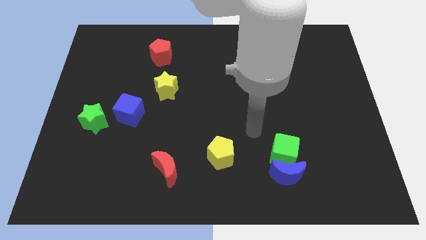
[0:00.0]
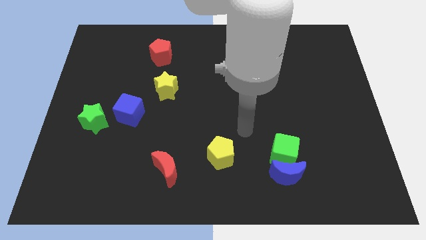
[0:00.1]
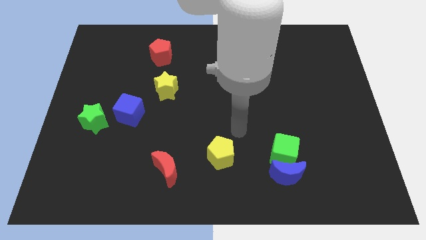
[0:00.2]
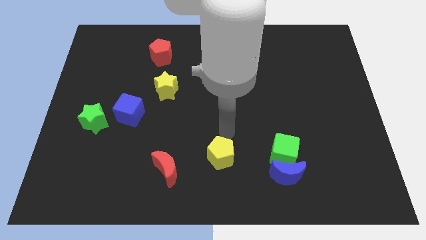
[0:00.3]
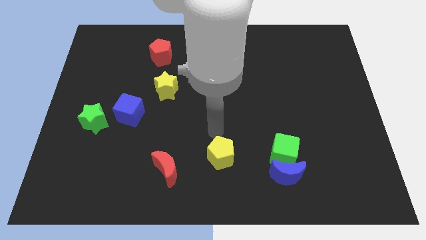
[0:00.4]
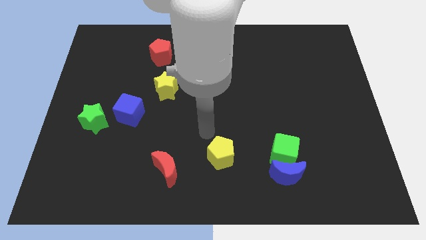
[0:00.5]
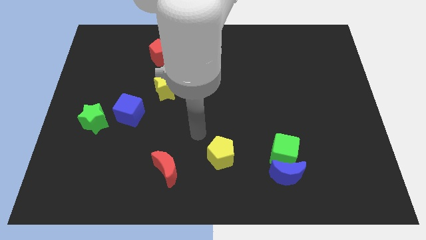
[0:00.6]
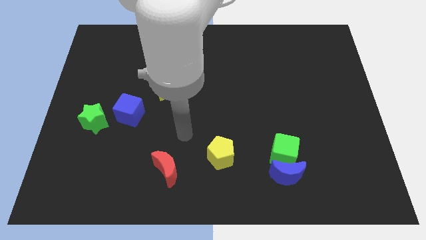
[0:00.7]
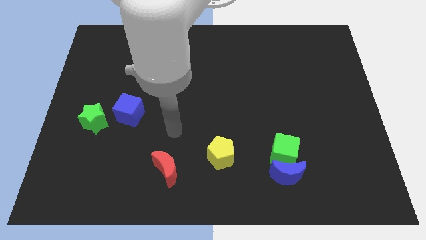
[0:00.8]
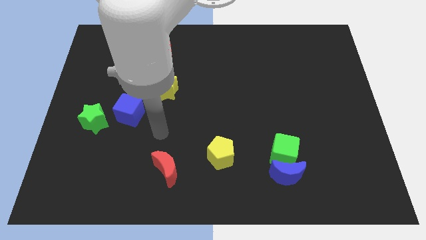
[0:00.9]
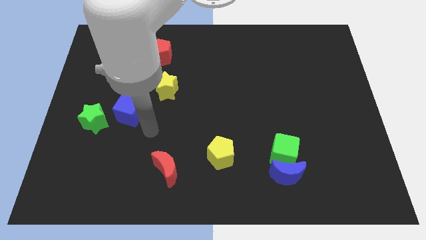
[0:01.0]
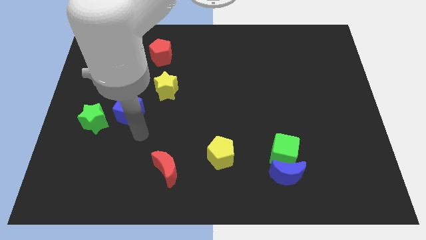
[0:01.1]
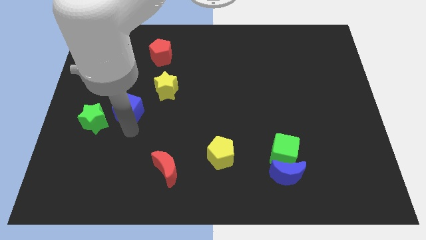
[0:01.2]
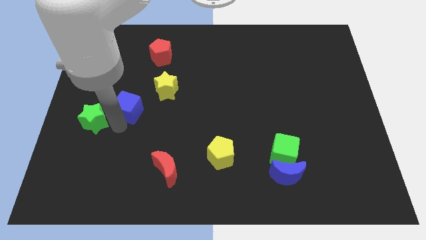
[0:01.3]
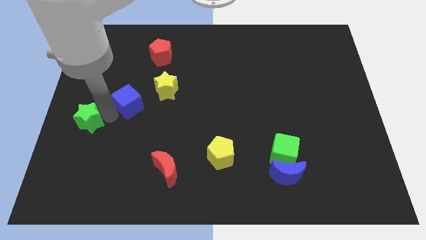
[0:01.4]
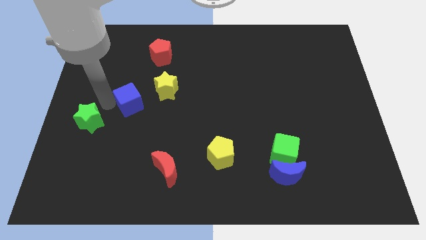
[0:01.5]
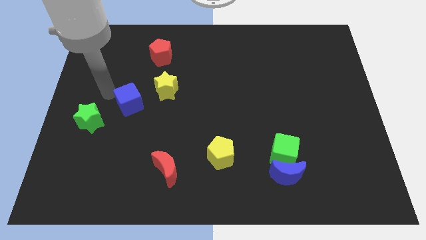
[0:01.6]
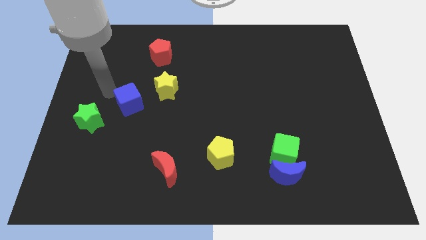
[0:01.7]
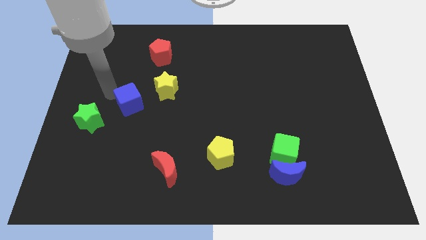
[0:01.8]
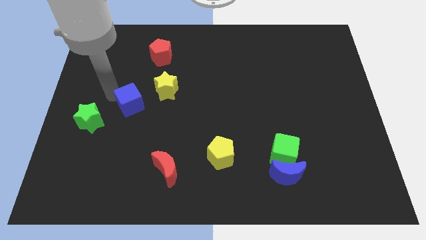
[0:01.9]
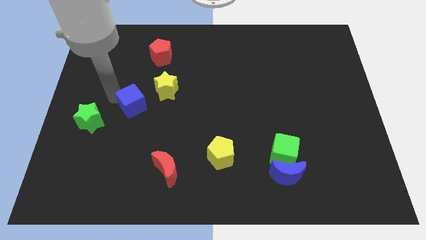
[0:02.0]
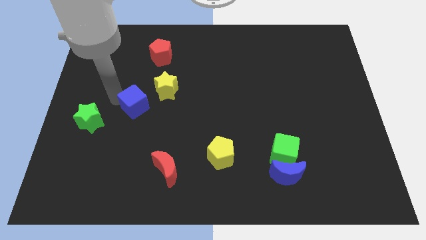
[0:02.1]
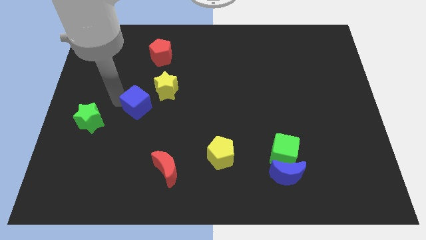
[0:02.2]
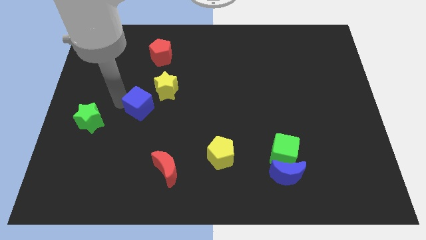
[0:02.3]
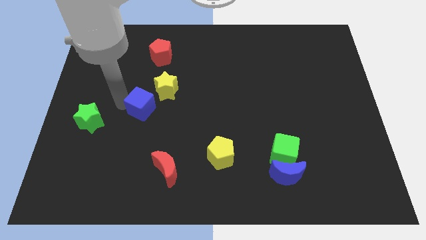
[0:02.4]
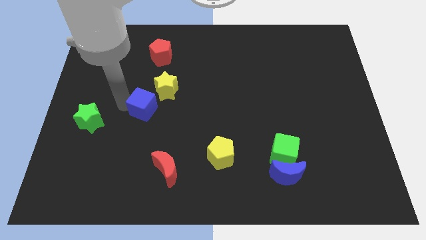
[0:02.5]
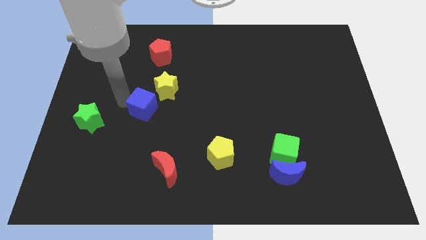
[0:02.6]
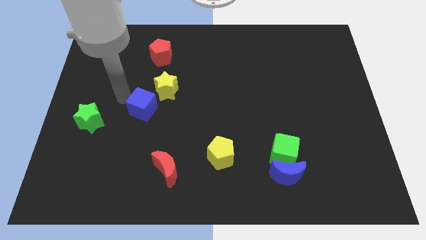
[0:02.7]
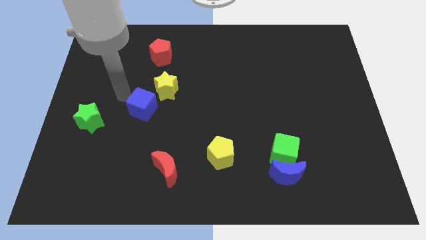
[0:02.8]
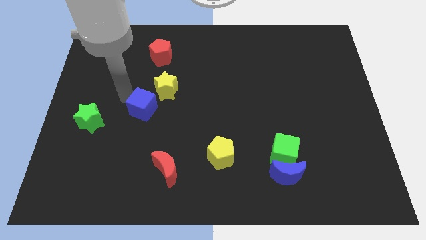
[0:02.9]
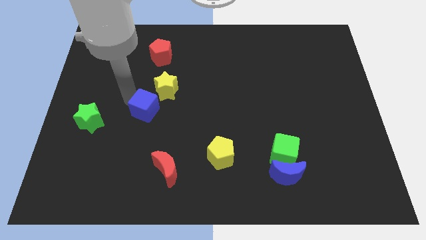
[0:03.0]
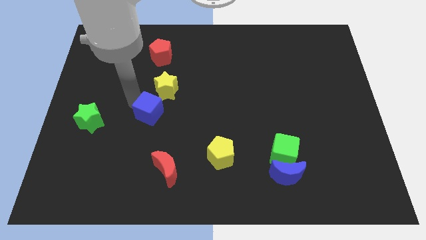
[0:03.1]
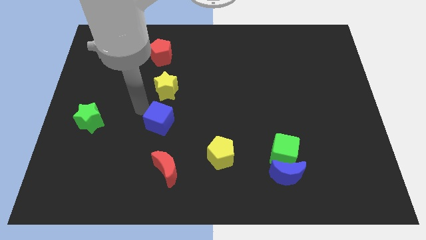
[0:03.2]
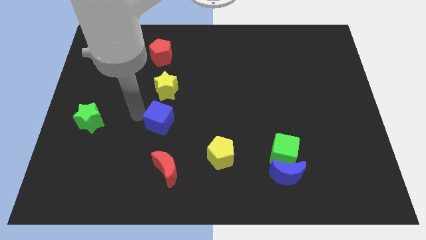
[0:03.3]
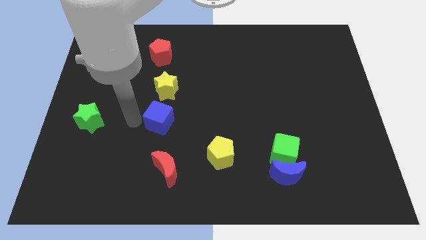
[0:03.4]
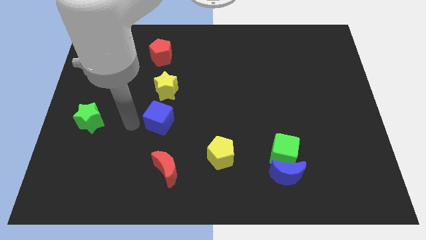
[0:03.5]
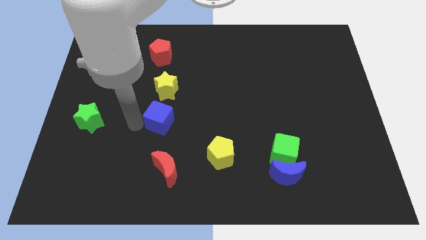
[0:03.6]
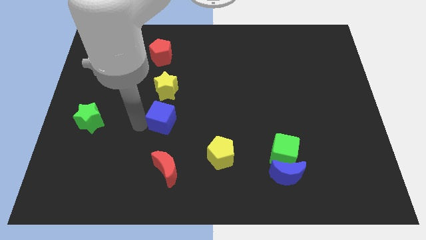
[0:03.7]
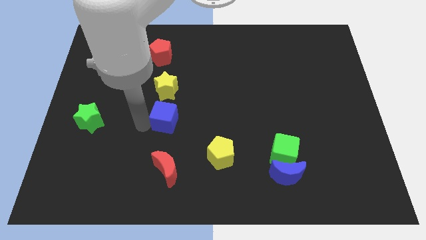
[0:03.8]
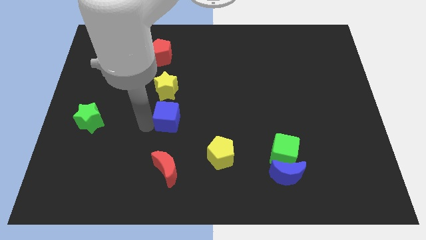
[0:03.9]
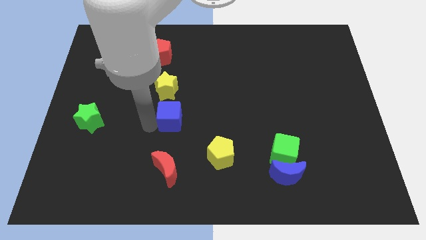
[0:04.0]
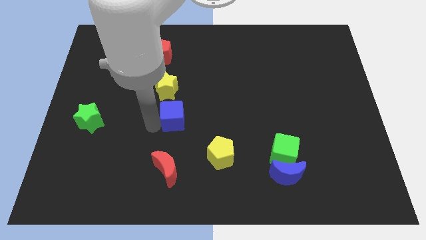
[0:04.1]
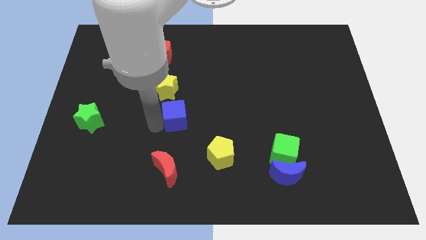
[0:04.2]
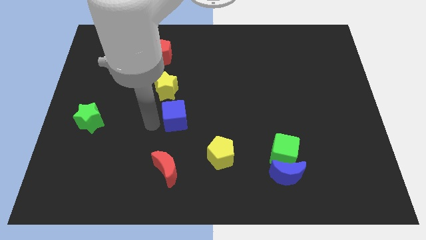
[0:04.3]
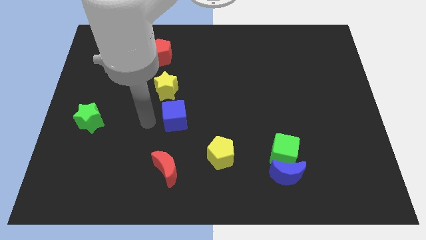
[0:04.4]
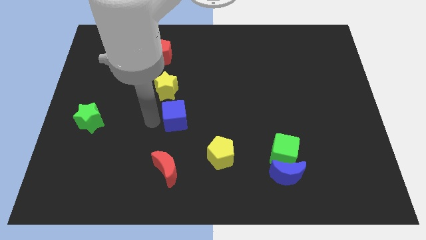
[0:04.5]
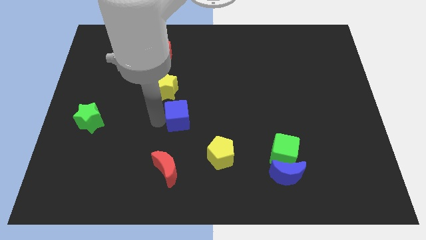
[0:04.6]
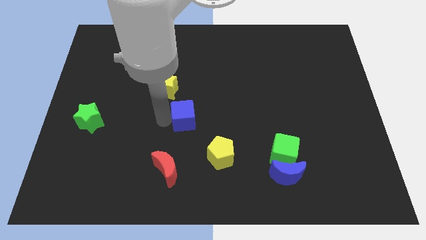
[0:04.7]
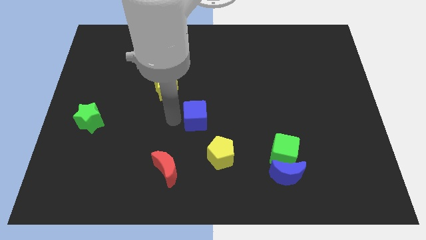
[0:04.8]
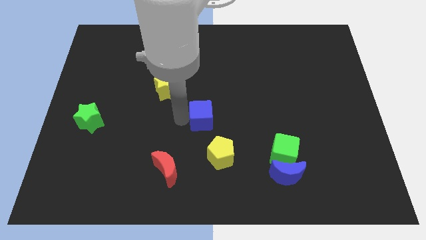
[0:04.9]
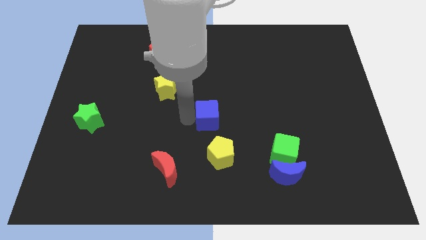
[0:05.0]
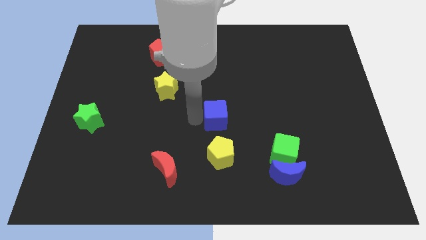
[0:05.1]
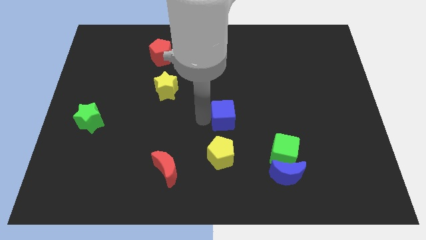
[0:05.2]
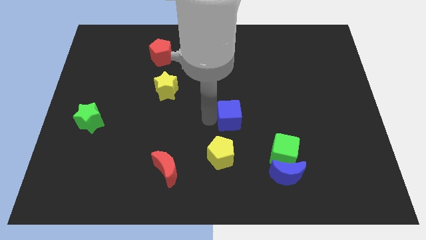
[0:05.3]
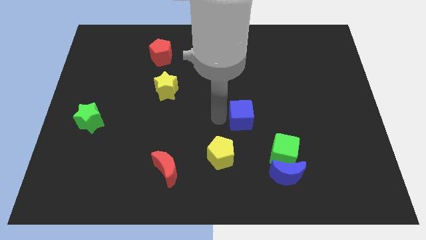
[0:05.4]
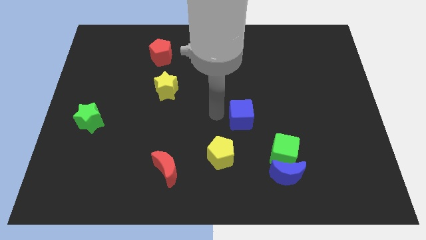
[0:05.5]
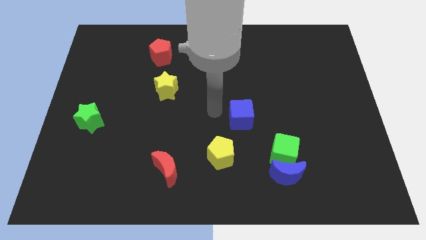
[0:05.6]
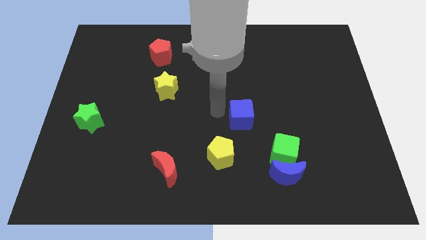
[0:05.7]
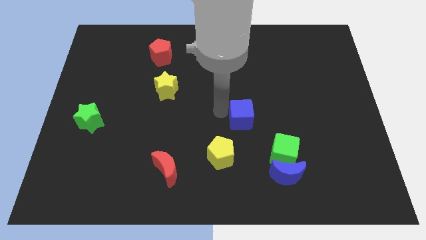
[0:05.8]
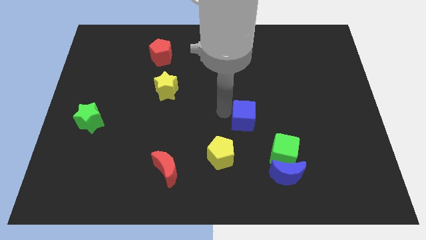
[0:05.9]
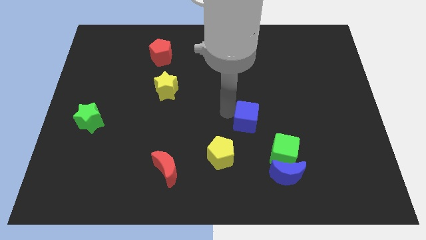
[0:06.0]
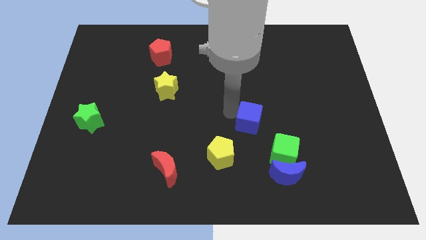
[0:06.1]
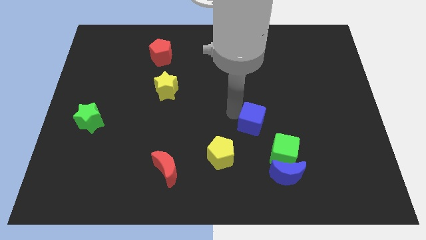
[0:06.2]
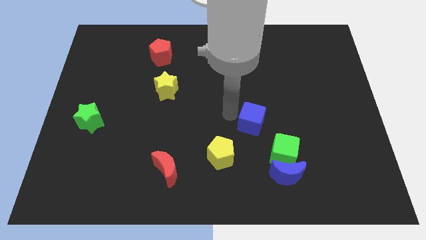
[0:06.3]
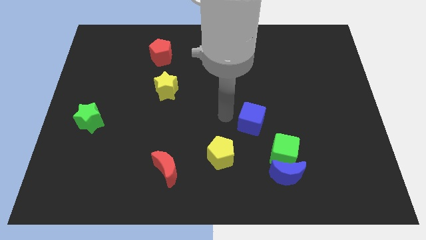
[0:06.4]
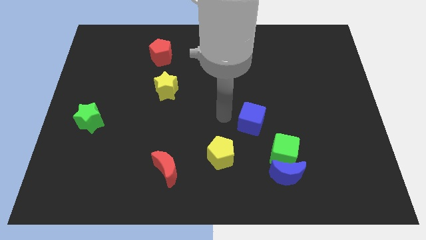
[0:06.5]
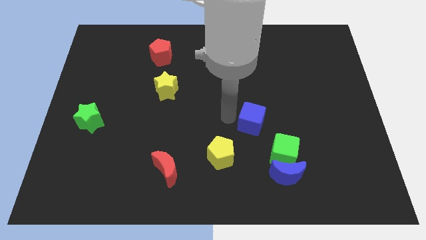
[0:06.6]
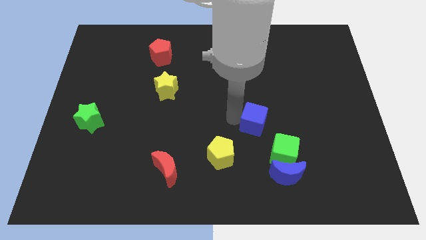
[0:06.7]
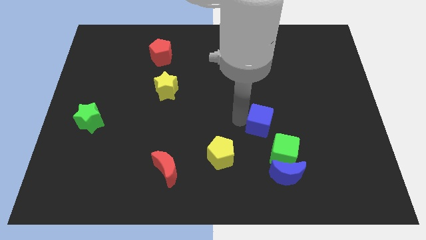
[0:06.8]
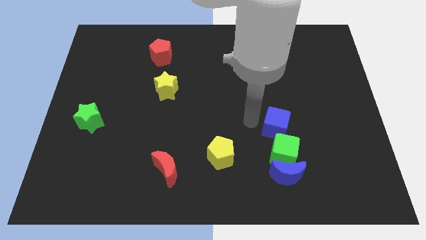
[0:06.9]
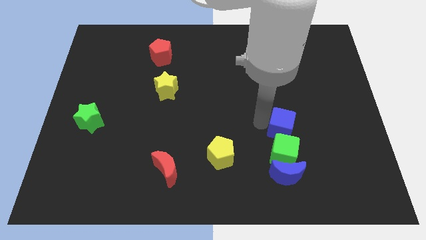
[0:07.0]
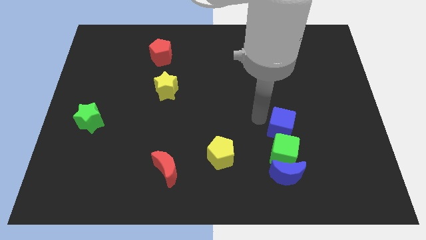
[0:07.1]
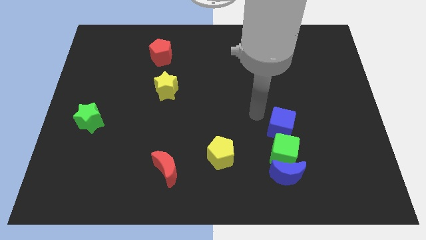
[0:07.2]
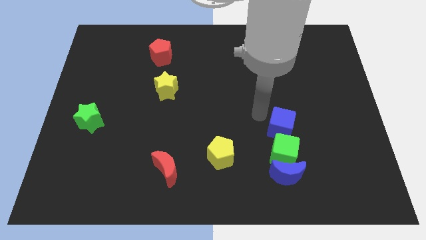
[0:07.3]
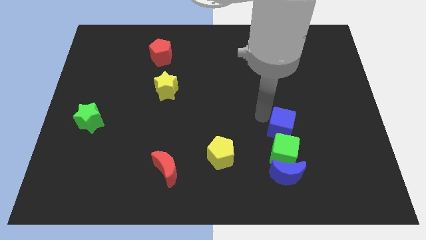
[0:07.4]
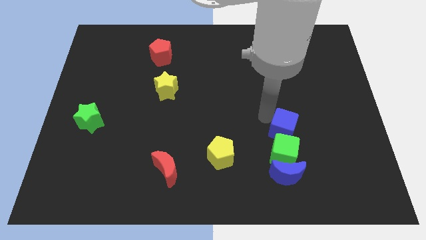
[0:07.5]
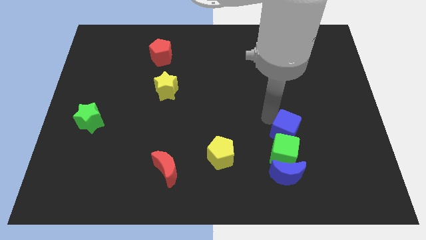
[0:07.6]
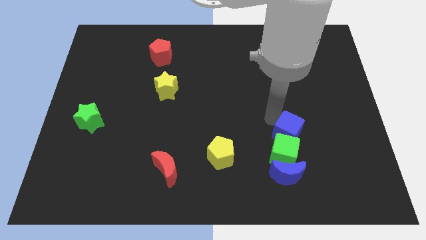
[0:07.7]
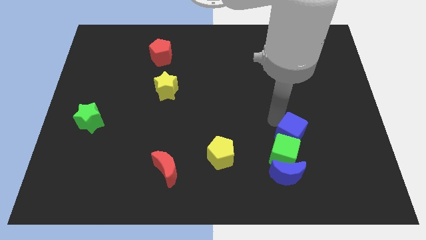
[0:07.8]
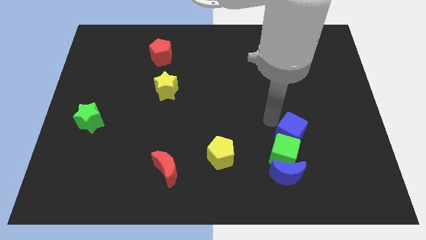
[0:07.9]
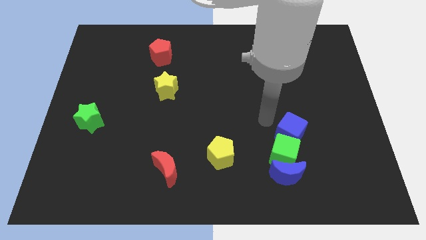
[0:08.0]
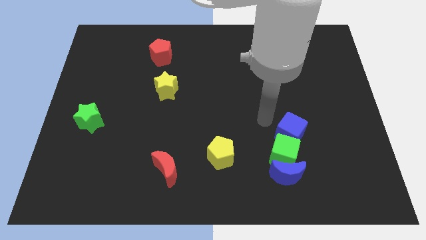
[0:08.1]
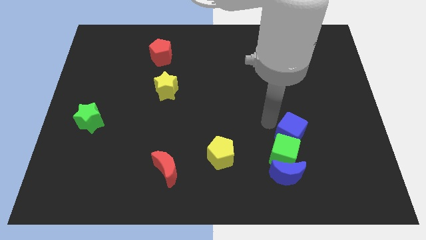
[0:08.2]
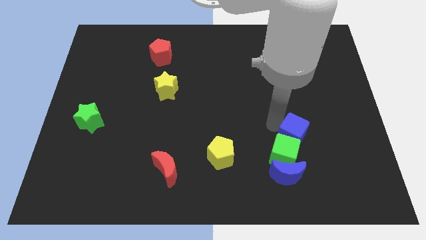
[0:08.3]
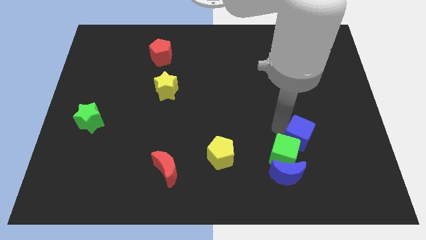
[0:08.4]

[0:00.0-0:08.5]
move the blue cube to the right side of the green cube
